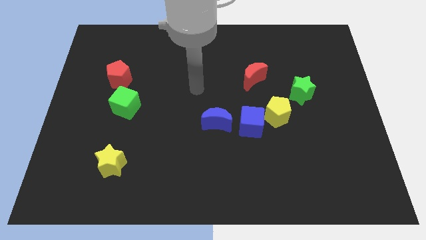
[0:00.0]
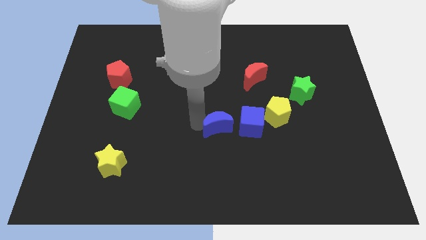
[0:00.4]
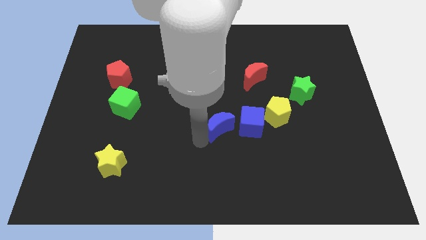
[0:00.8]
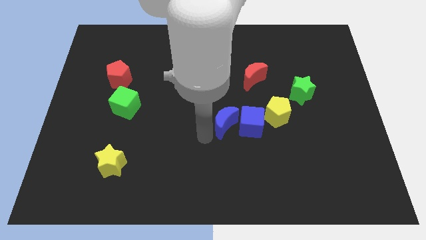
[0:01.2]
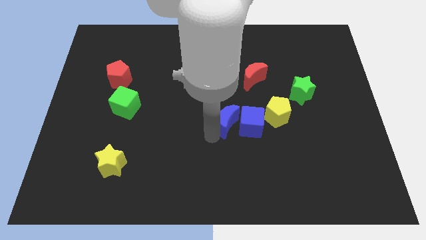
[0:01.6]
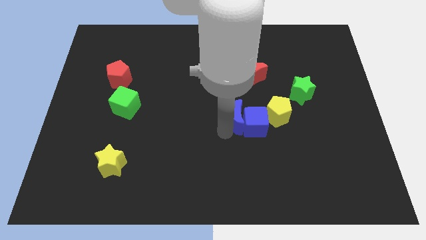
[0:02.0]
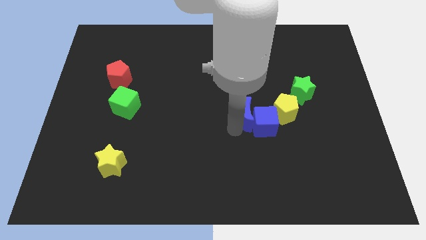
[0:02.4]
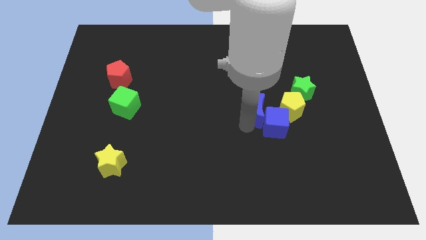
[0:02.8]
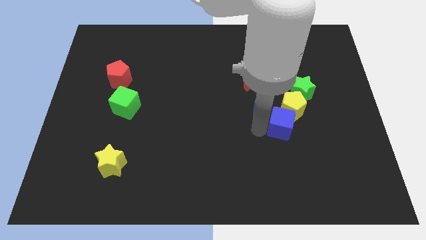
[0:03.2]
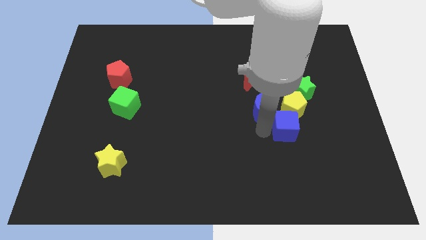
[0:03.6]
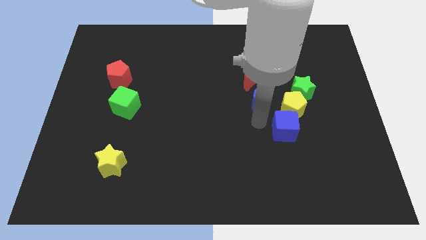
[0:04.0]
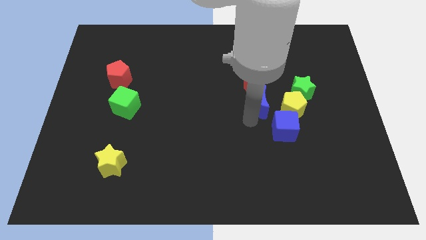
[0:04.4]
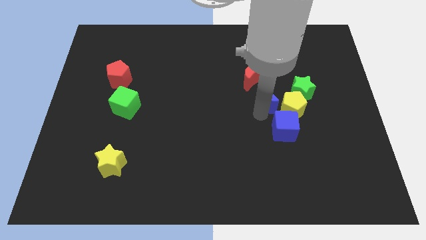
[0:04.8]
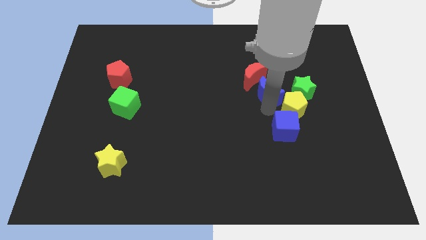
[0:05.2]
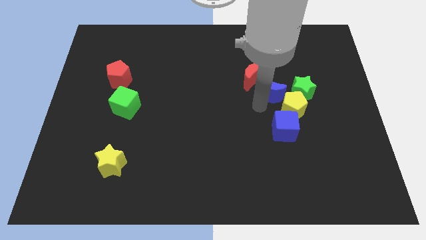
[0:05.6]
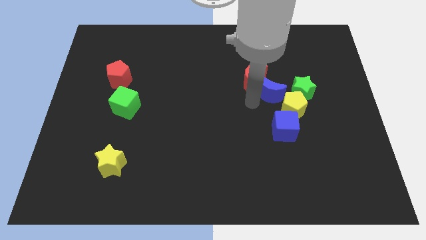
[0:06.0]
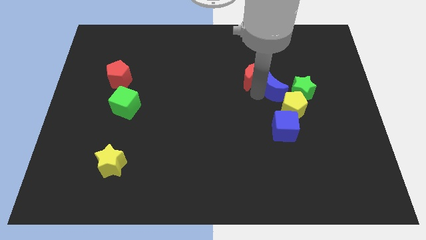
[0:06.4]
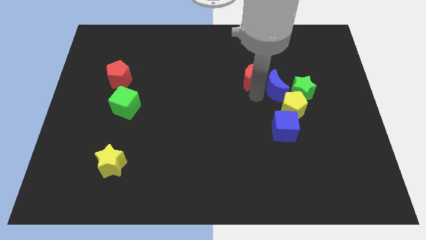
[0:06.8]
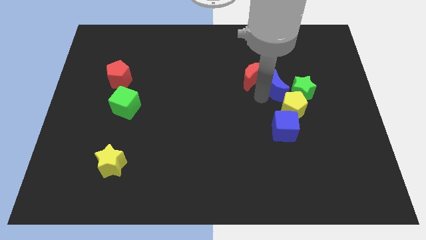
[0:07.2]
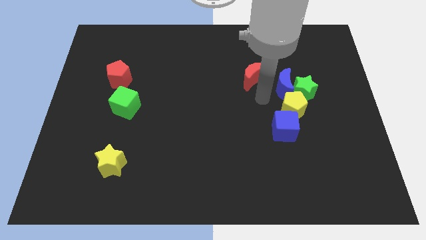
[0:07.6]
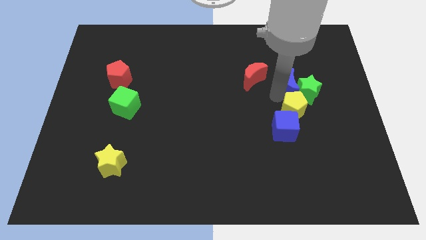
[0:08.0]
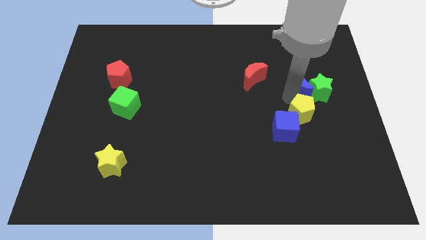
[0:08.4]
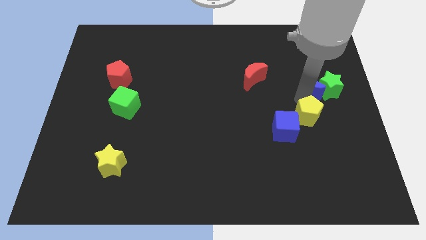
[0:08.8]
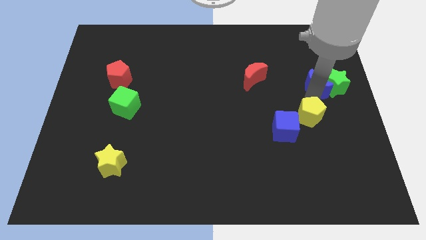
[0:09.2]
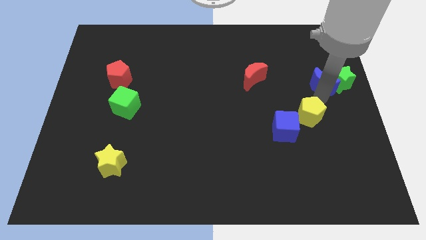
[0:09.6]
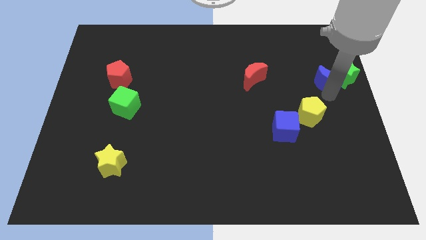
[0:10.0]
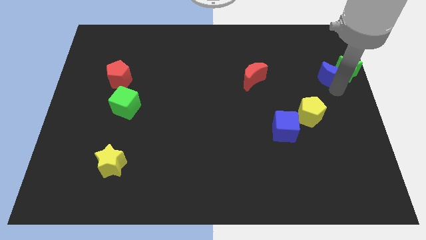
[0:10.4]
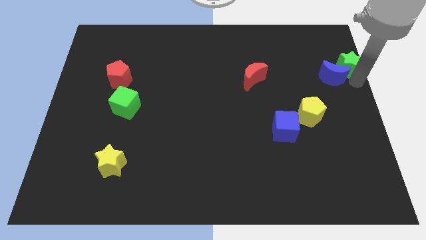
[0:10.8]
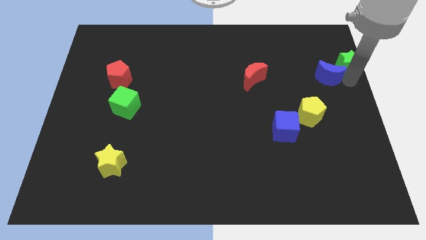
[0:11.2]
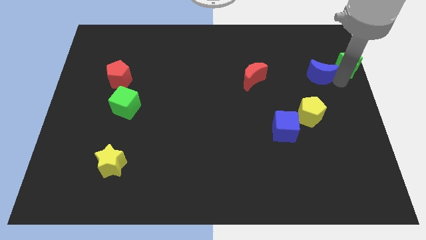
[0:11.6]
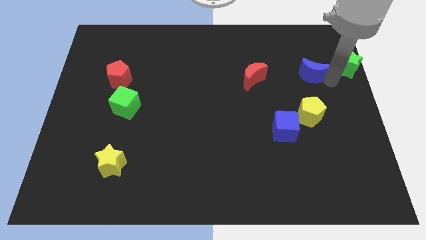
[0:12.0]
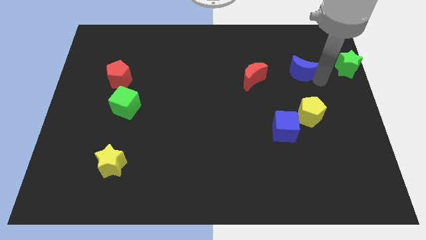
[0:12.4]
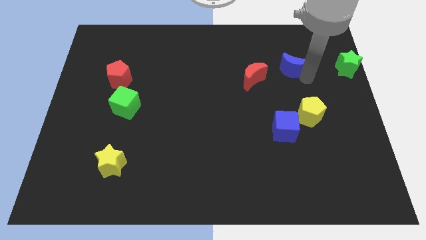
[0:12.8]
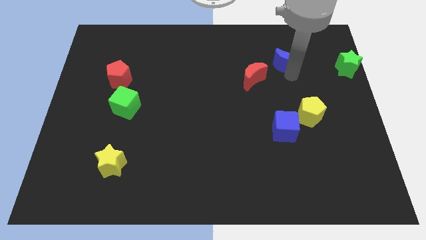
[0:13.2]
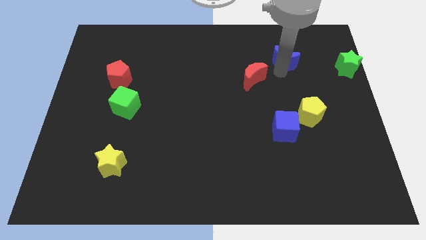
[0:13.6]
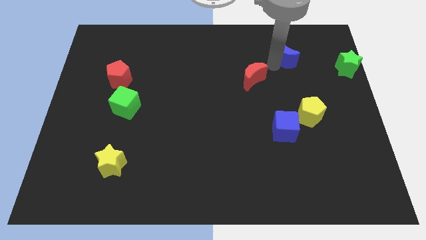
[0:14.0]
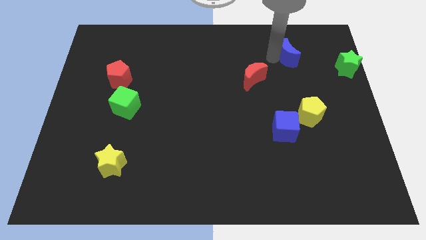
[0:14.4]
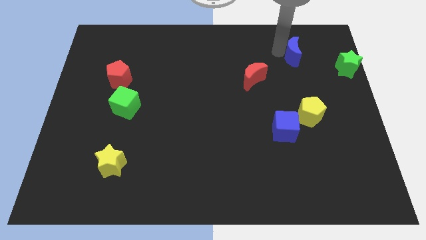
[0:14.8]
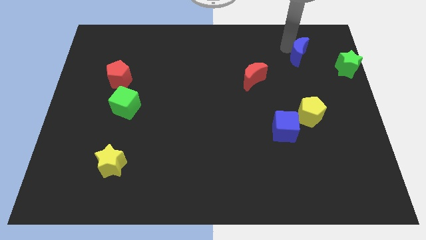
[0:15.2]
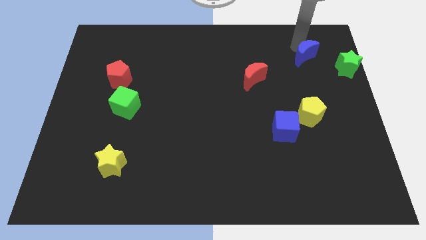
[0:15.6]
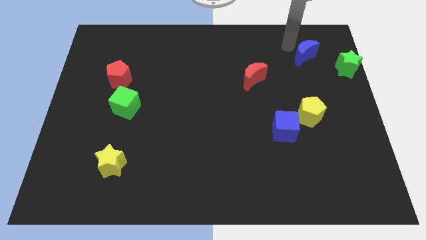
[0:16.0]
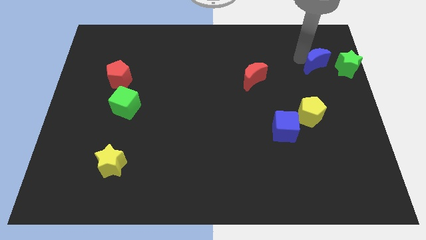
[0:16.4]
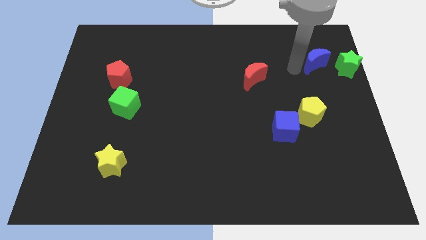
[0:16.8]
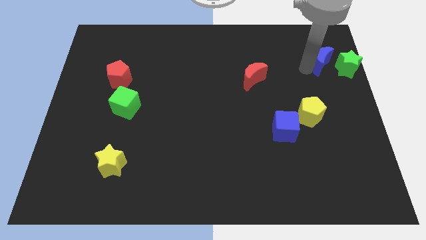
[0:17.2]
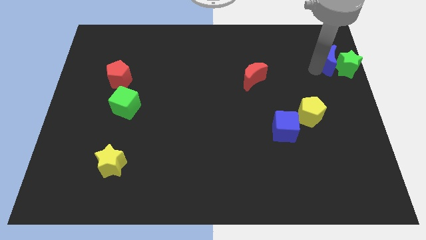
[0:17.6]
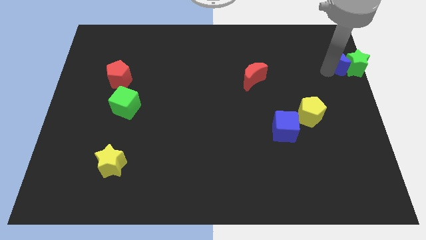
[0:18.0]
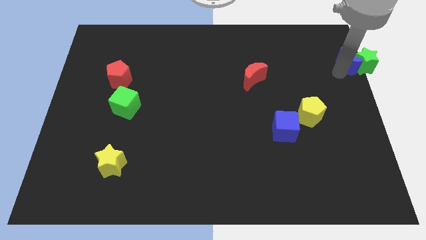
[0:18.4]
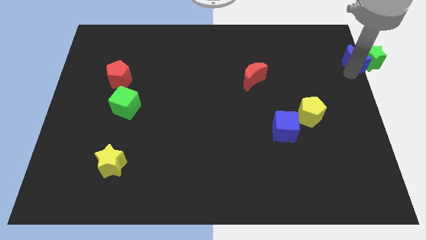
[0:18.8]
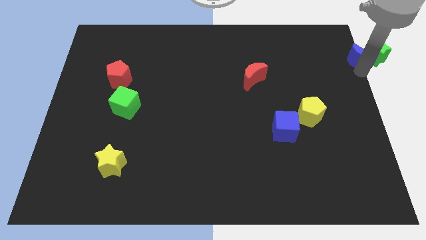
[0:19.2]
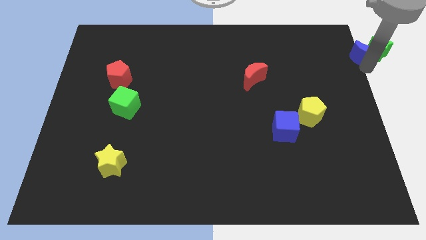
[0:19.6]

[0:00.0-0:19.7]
move the blue moon to the top right of the board
